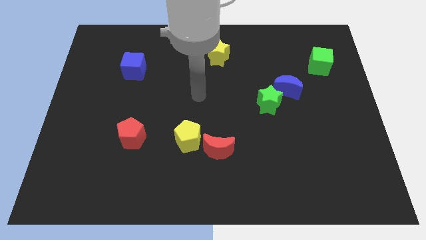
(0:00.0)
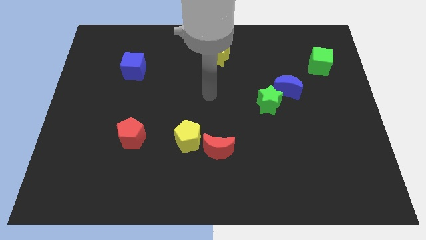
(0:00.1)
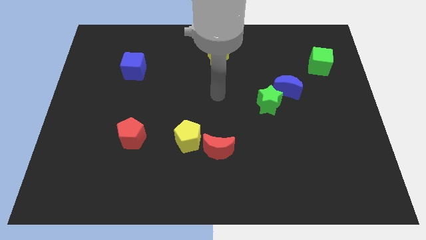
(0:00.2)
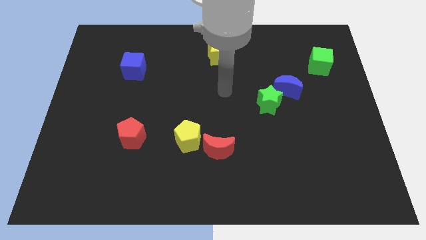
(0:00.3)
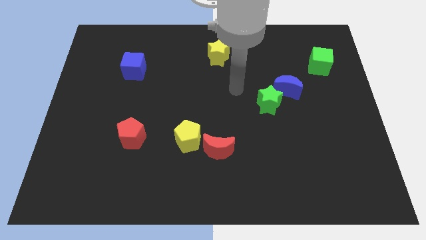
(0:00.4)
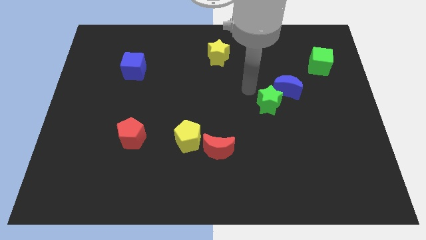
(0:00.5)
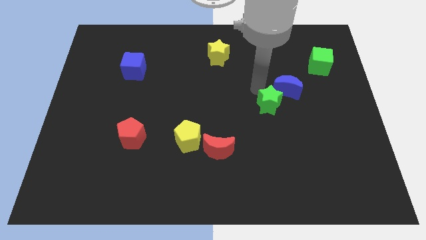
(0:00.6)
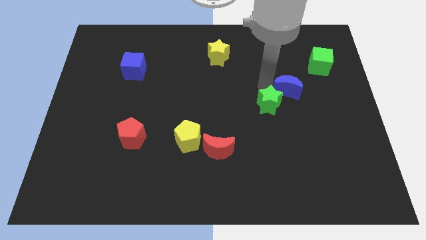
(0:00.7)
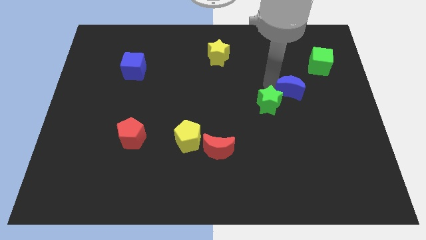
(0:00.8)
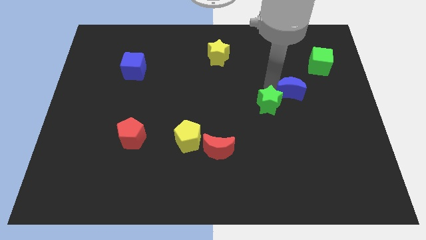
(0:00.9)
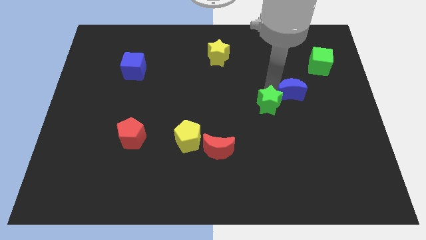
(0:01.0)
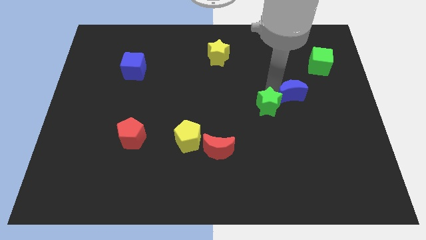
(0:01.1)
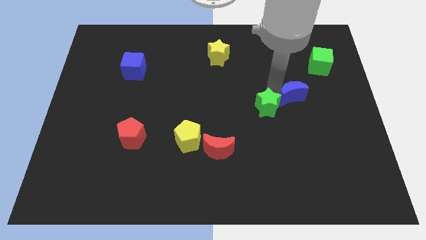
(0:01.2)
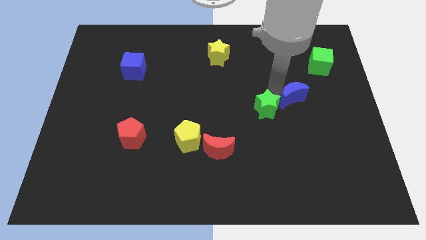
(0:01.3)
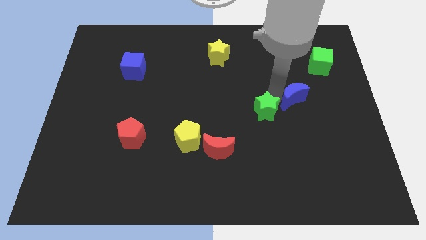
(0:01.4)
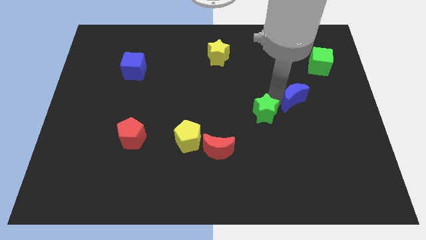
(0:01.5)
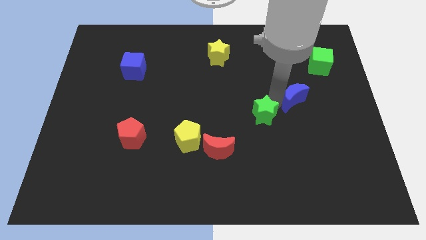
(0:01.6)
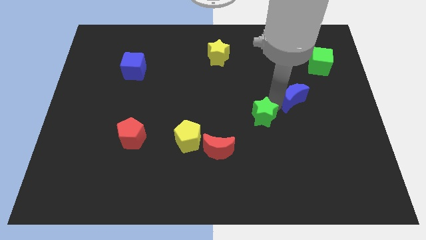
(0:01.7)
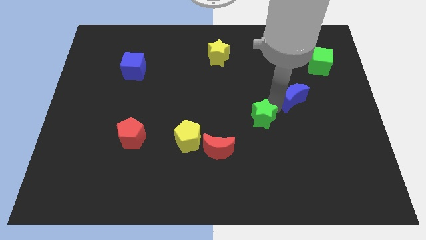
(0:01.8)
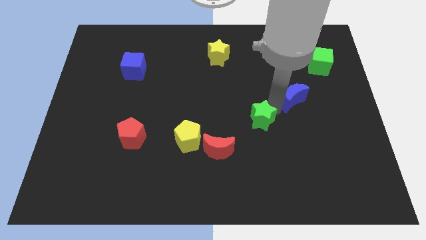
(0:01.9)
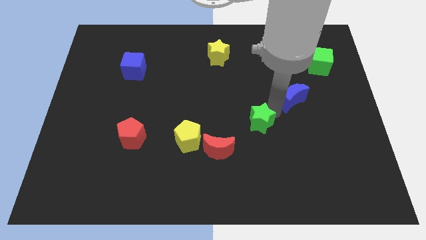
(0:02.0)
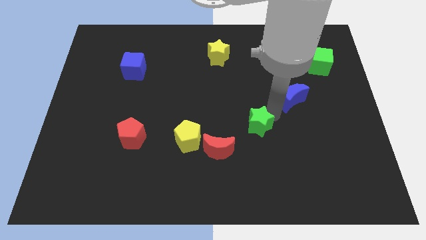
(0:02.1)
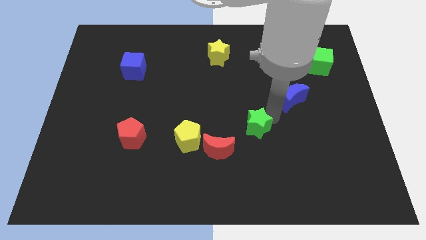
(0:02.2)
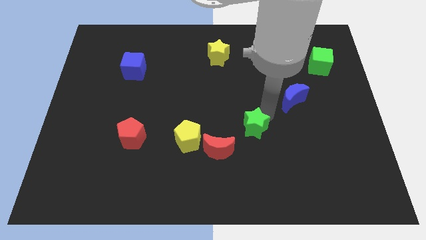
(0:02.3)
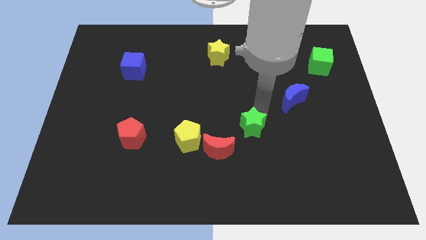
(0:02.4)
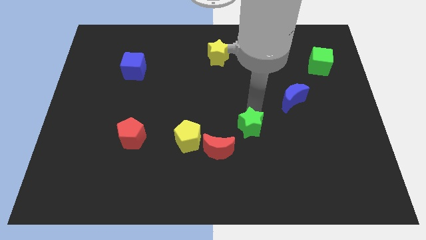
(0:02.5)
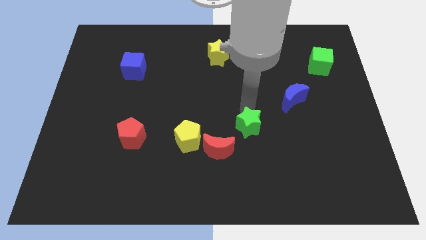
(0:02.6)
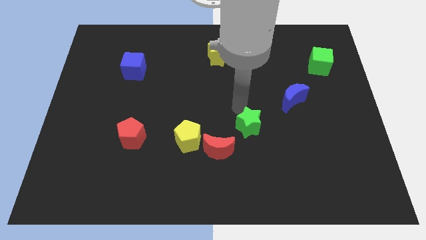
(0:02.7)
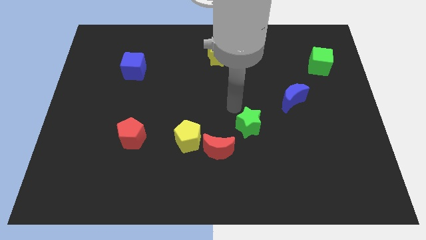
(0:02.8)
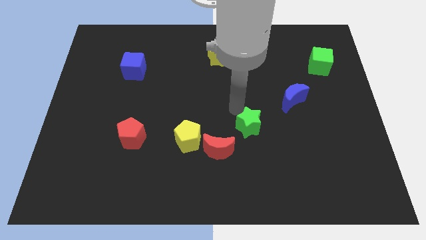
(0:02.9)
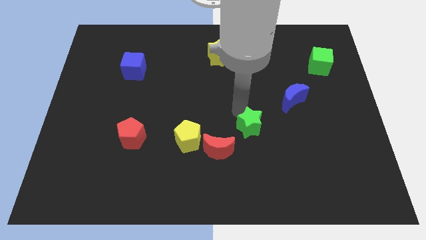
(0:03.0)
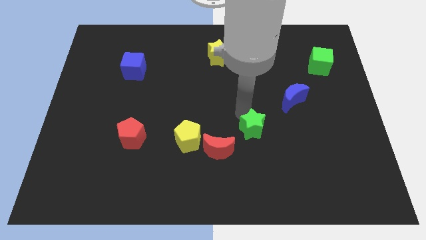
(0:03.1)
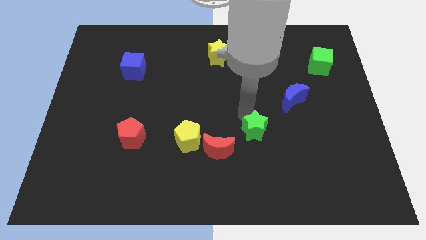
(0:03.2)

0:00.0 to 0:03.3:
slide the green star down a little bit

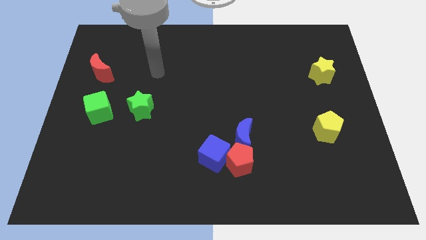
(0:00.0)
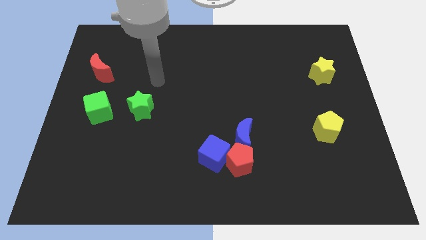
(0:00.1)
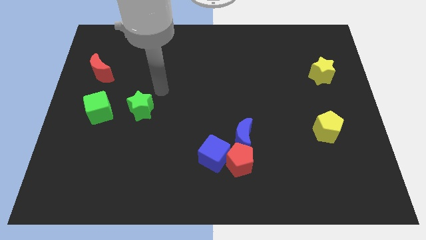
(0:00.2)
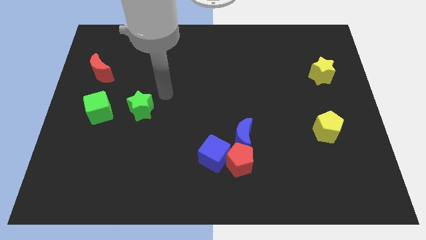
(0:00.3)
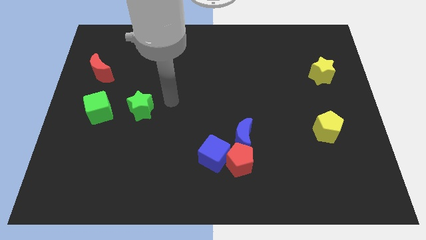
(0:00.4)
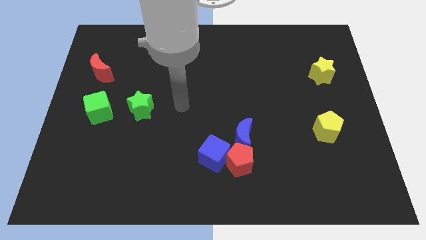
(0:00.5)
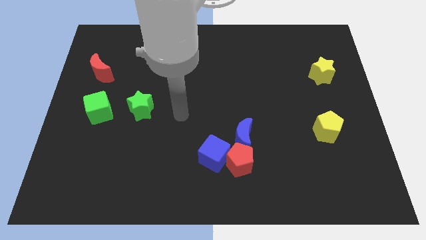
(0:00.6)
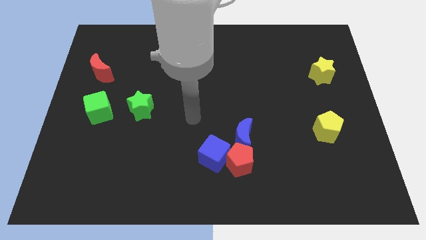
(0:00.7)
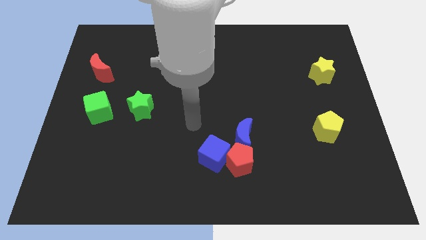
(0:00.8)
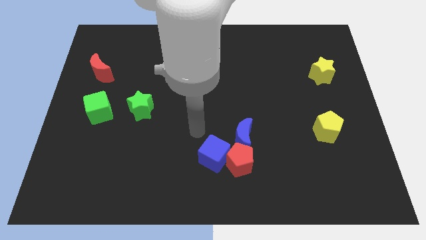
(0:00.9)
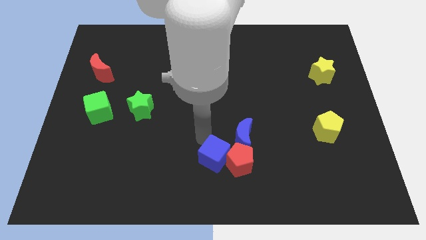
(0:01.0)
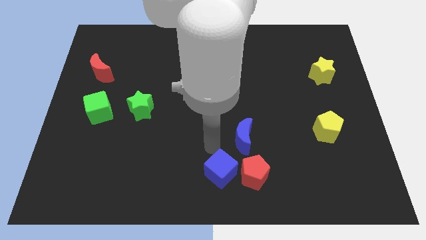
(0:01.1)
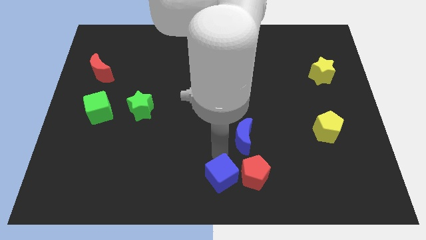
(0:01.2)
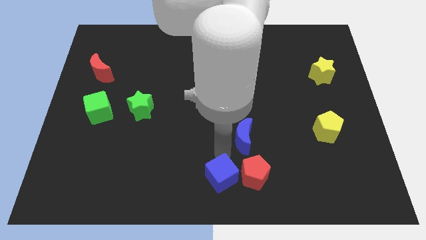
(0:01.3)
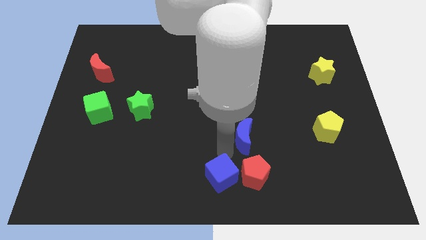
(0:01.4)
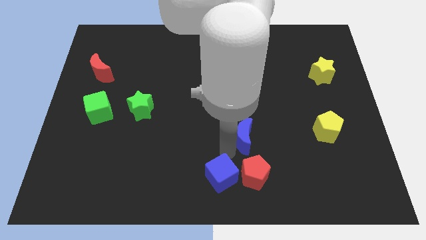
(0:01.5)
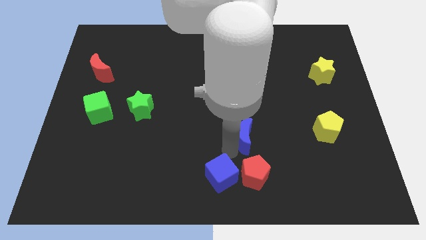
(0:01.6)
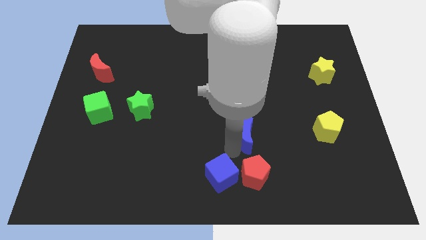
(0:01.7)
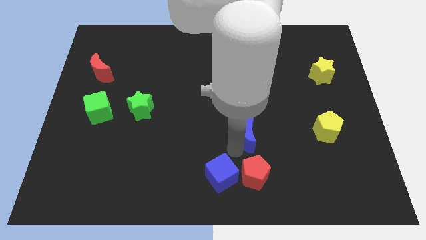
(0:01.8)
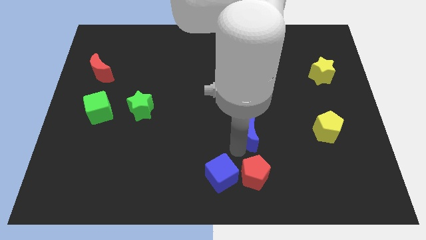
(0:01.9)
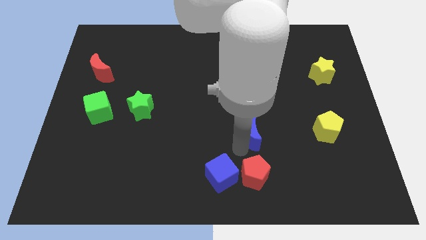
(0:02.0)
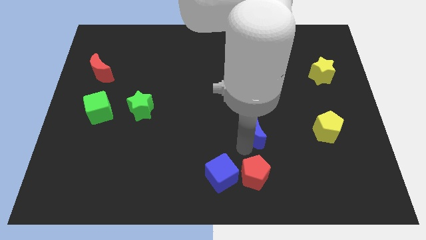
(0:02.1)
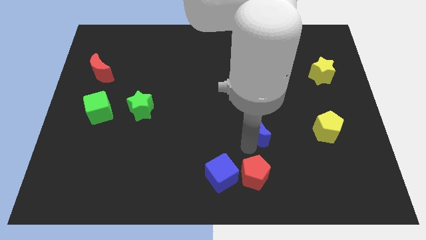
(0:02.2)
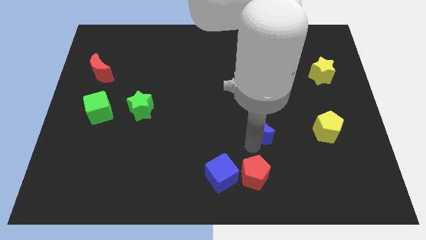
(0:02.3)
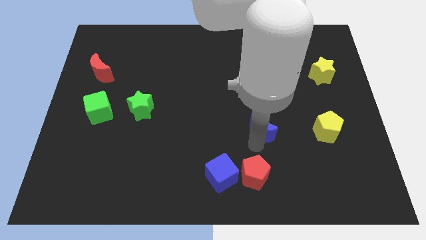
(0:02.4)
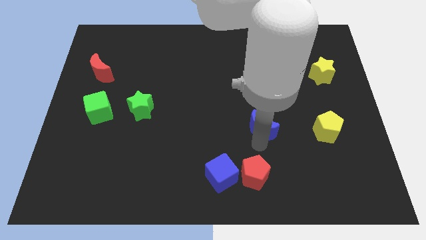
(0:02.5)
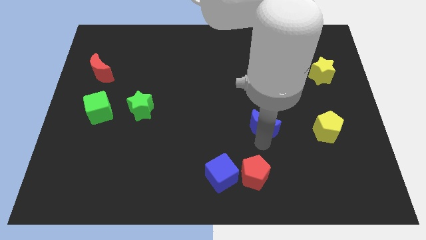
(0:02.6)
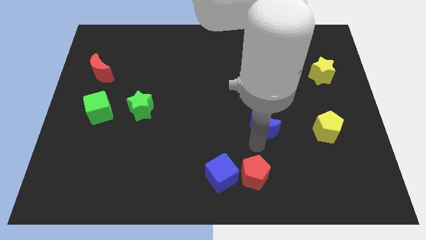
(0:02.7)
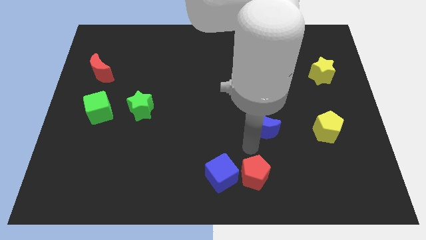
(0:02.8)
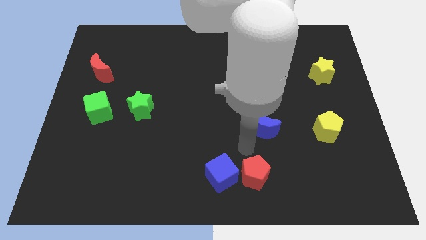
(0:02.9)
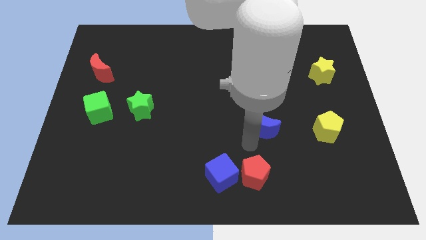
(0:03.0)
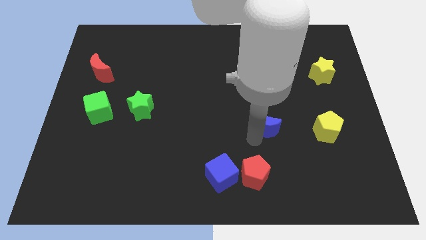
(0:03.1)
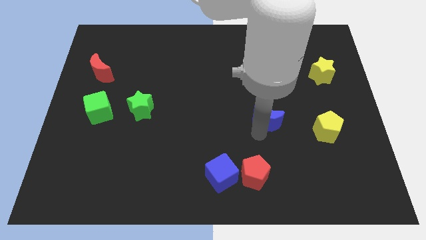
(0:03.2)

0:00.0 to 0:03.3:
slightly push the blue moon upwards and to the right

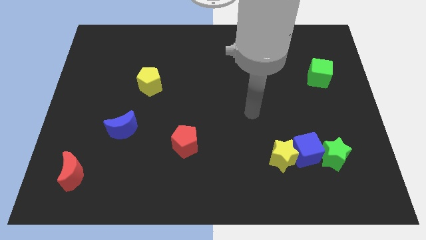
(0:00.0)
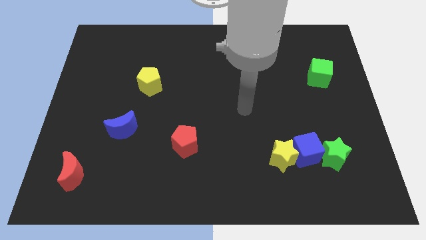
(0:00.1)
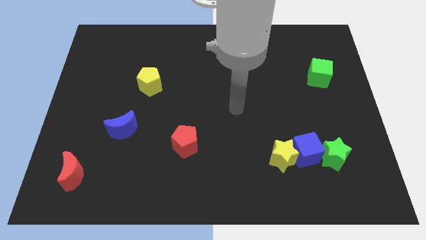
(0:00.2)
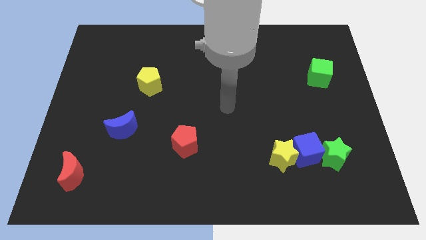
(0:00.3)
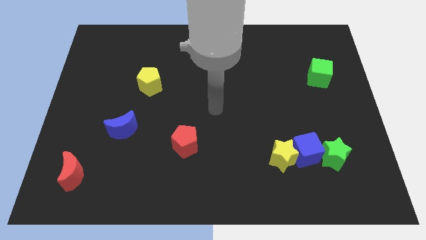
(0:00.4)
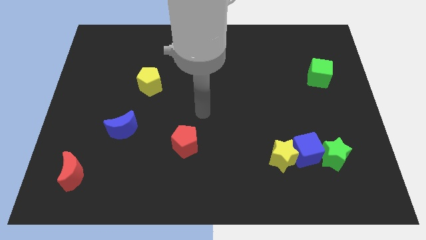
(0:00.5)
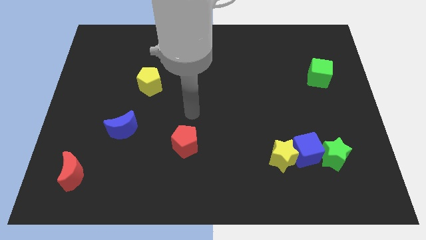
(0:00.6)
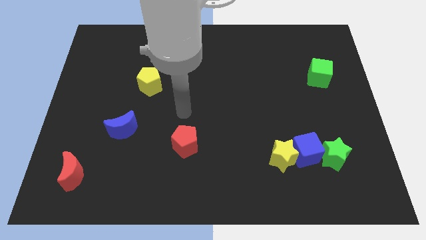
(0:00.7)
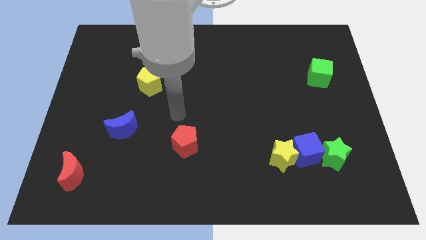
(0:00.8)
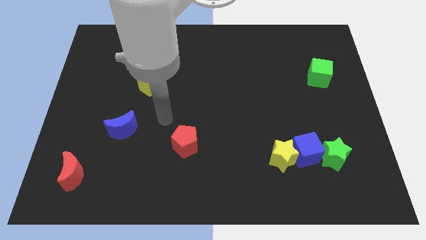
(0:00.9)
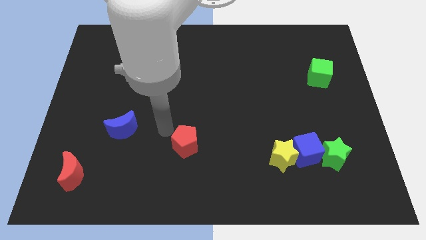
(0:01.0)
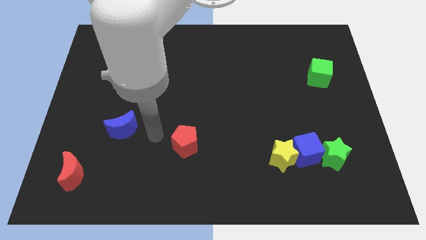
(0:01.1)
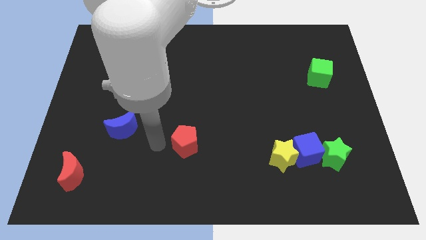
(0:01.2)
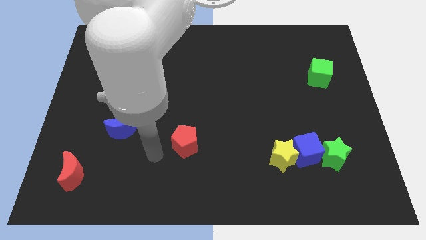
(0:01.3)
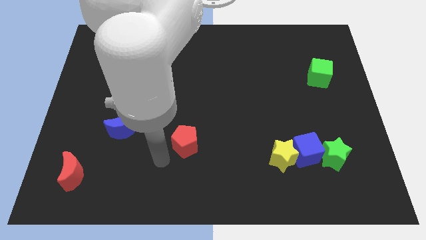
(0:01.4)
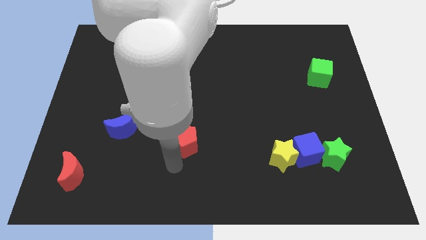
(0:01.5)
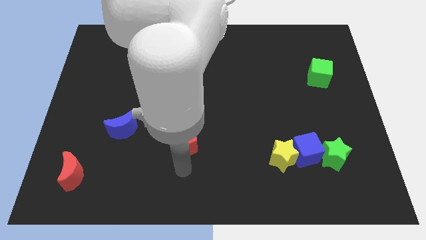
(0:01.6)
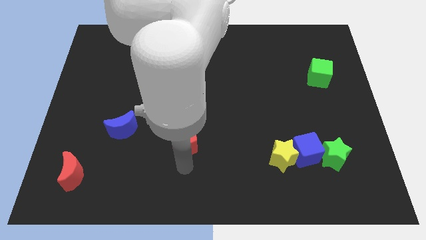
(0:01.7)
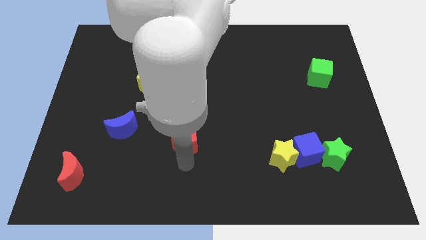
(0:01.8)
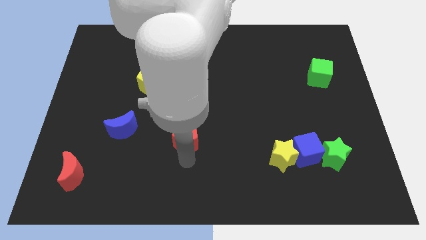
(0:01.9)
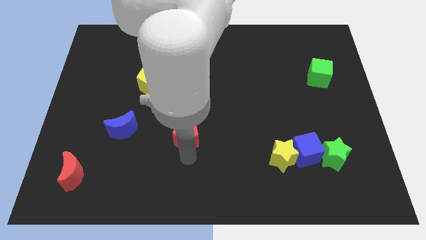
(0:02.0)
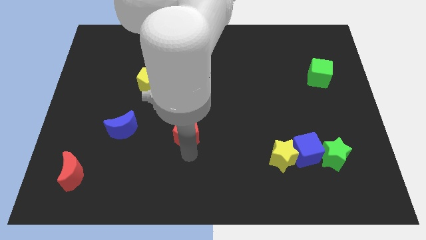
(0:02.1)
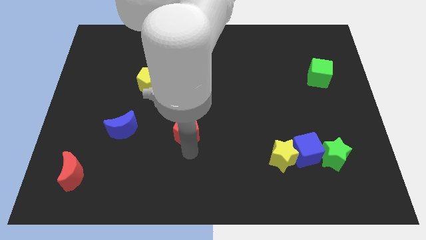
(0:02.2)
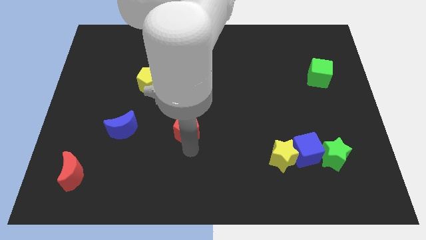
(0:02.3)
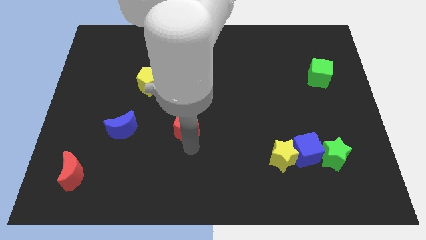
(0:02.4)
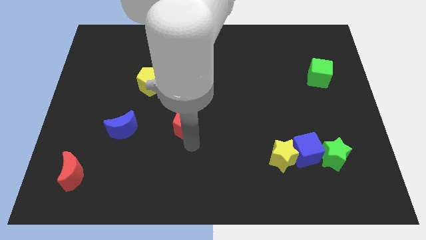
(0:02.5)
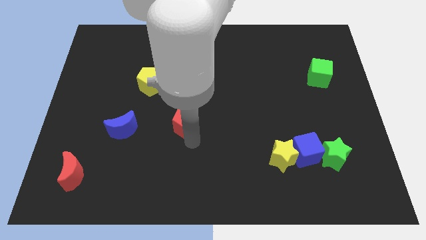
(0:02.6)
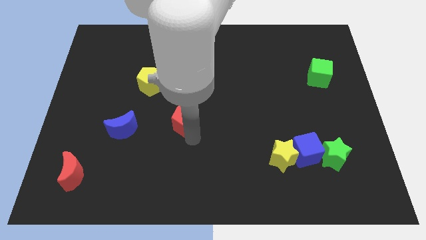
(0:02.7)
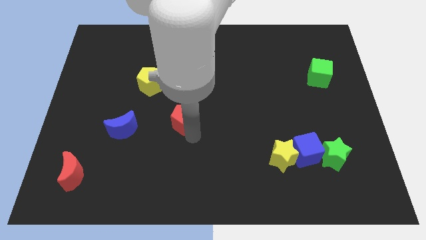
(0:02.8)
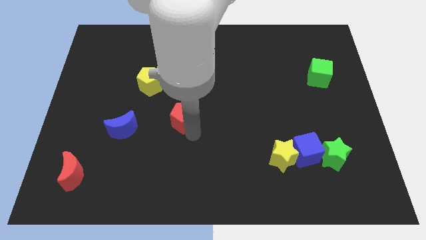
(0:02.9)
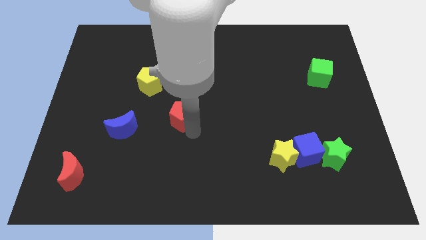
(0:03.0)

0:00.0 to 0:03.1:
move the red pentagon up slightly
